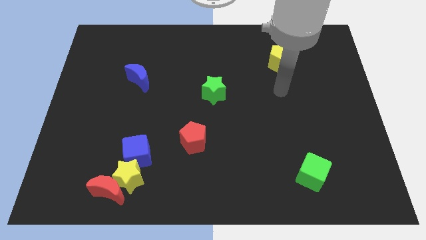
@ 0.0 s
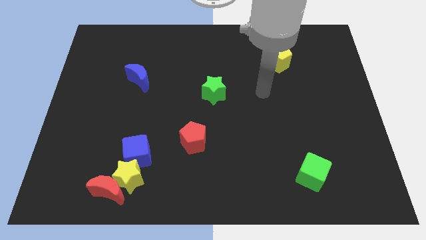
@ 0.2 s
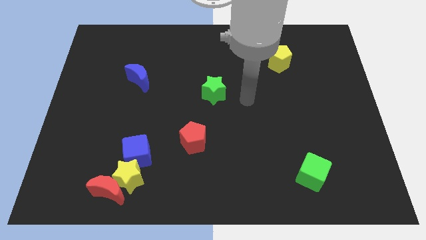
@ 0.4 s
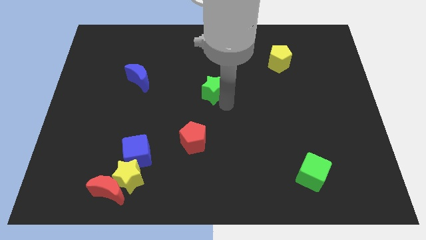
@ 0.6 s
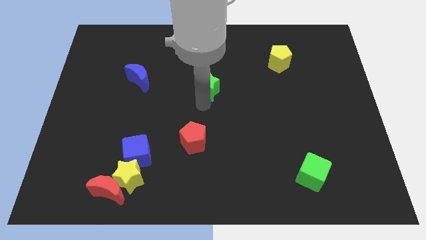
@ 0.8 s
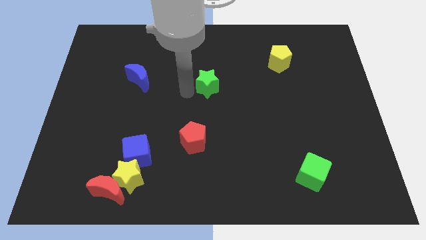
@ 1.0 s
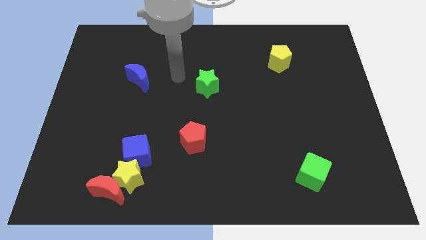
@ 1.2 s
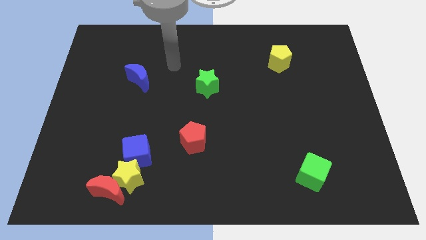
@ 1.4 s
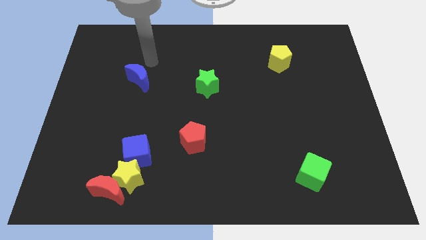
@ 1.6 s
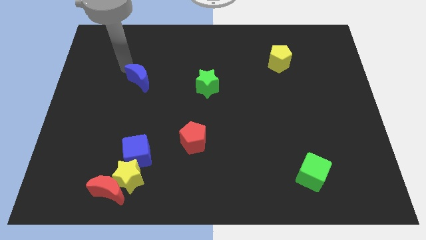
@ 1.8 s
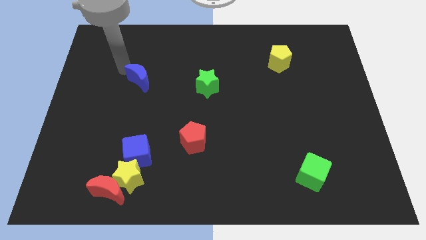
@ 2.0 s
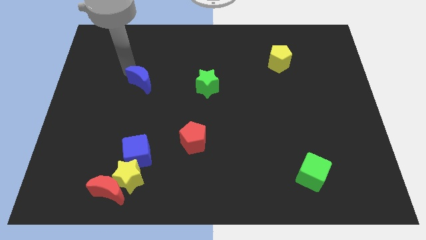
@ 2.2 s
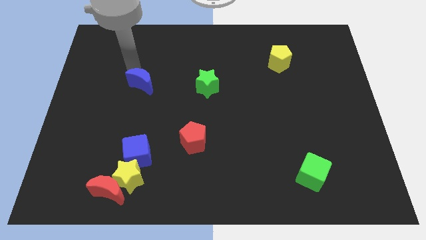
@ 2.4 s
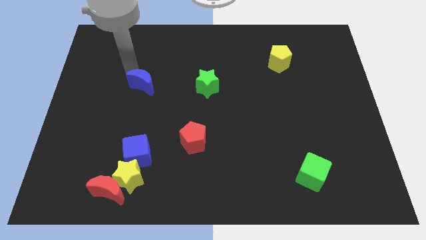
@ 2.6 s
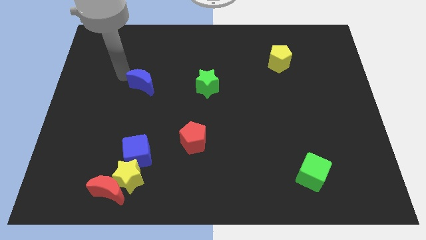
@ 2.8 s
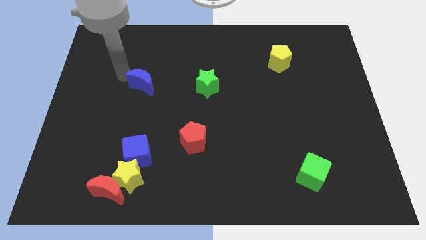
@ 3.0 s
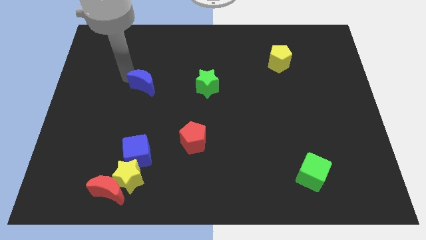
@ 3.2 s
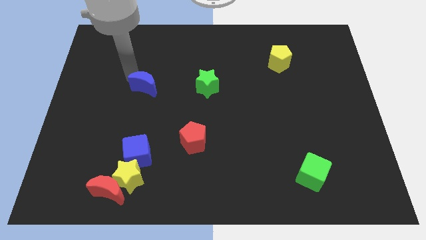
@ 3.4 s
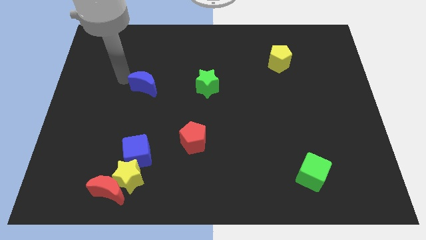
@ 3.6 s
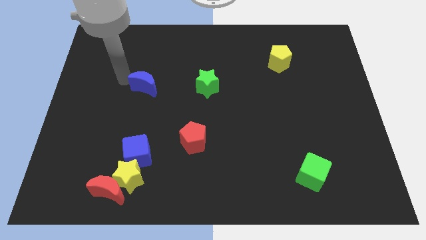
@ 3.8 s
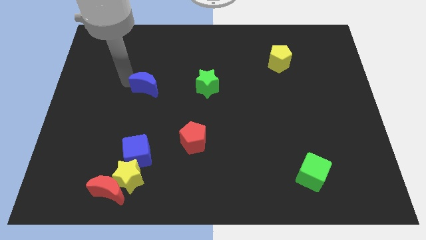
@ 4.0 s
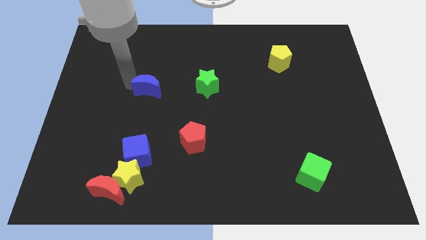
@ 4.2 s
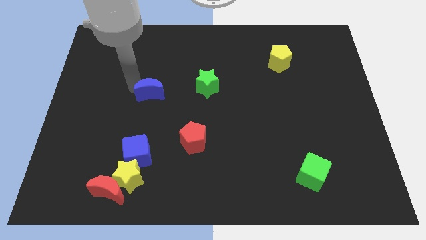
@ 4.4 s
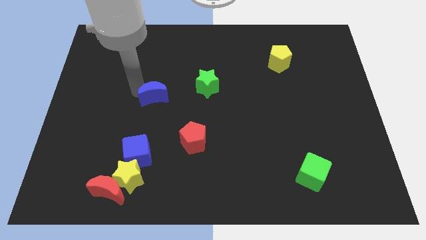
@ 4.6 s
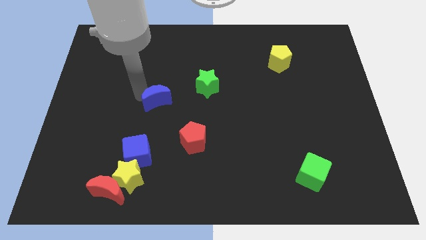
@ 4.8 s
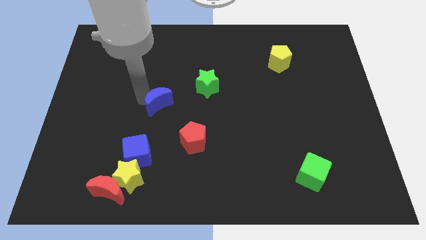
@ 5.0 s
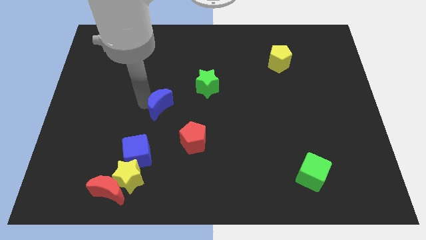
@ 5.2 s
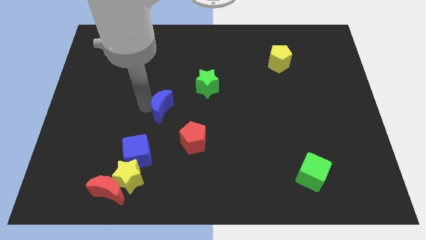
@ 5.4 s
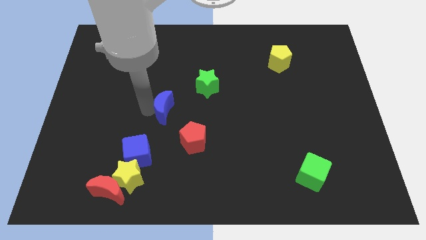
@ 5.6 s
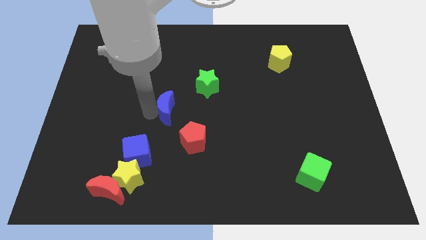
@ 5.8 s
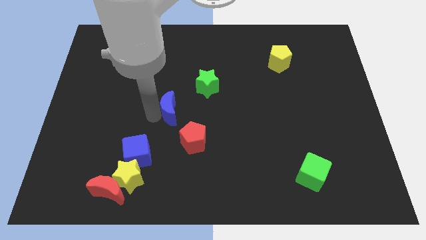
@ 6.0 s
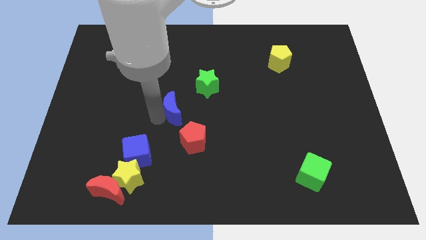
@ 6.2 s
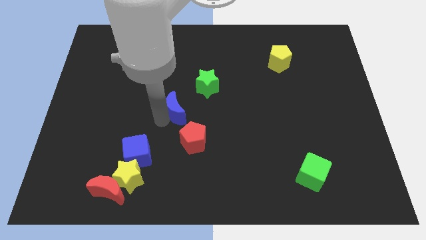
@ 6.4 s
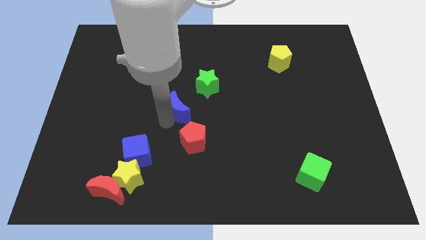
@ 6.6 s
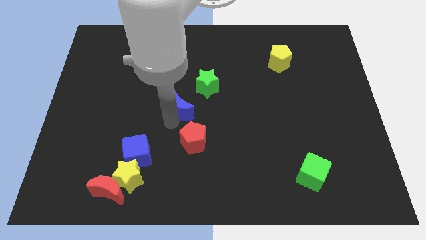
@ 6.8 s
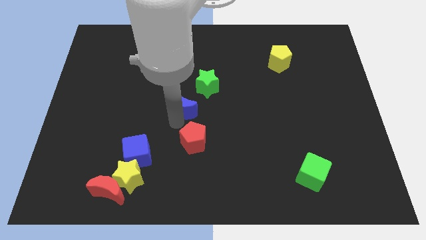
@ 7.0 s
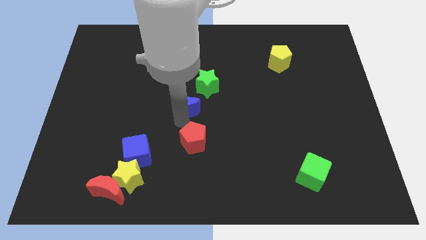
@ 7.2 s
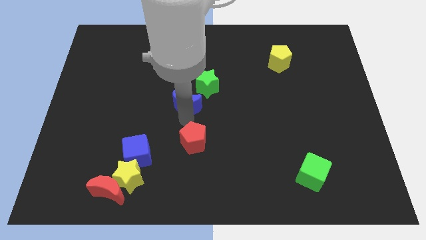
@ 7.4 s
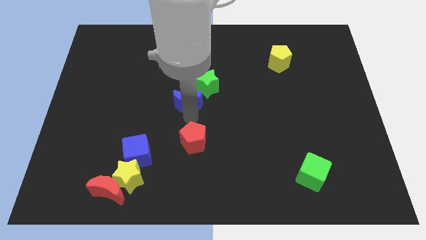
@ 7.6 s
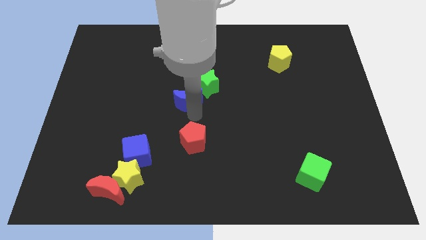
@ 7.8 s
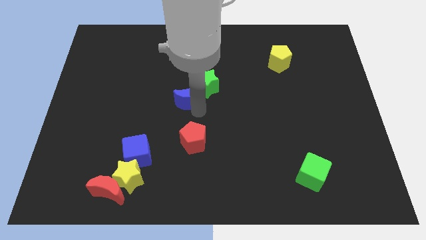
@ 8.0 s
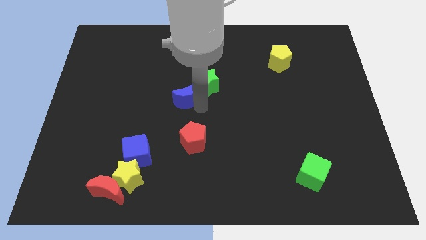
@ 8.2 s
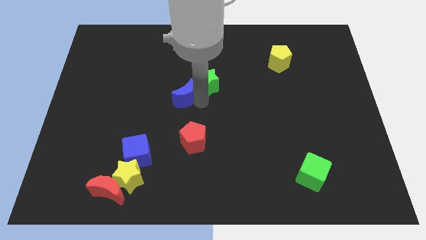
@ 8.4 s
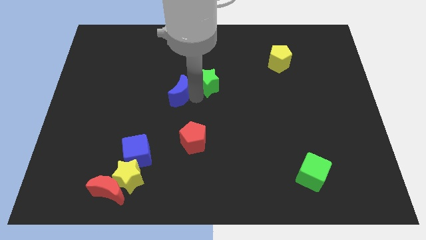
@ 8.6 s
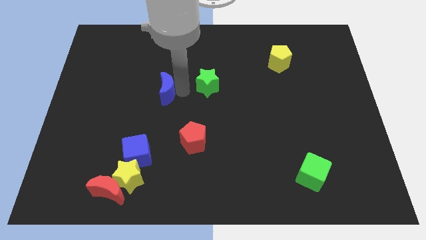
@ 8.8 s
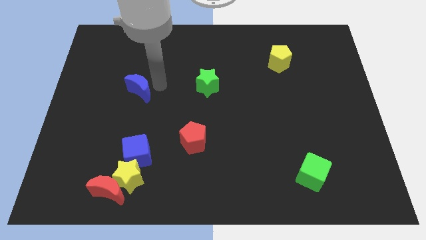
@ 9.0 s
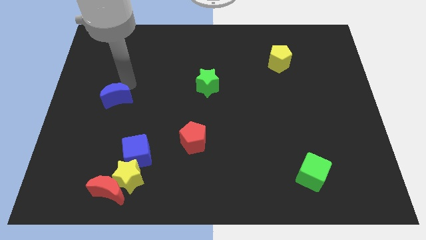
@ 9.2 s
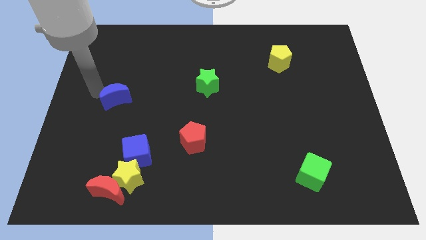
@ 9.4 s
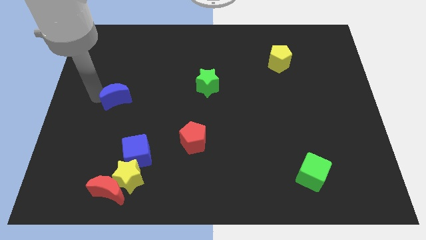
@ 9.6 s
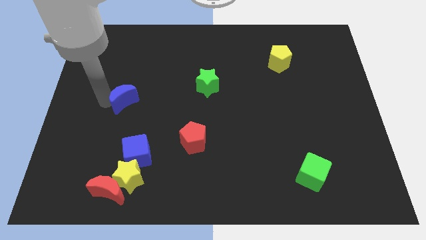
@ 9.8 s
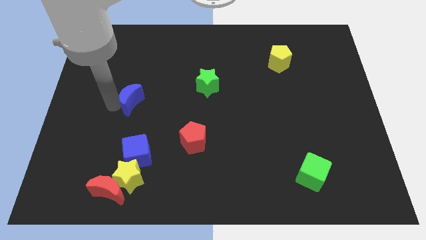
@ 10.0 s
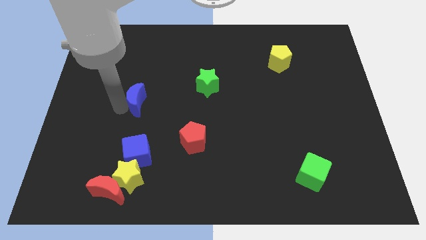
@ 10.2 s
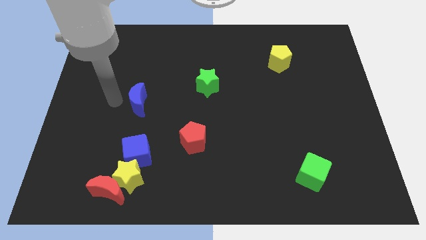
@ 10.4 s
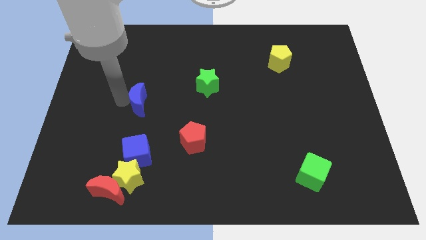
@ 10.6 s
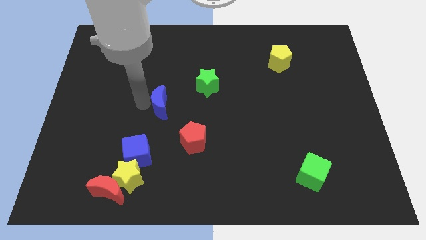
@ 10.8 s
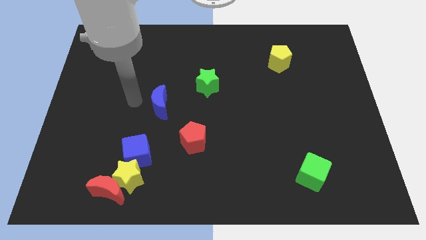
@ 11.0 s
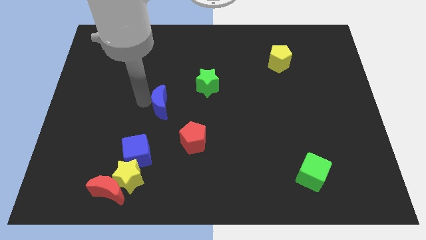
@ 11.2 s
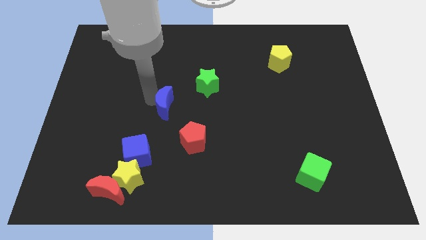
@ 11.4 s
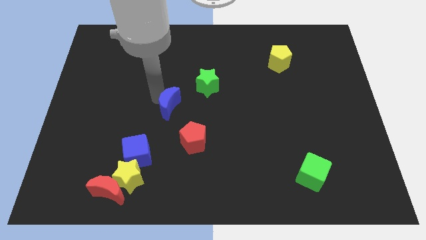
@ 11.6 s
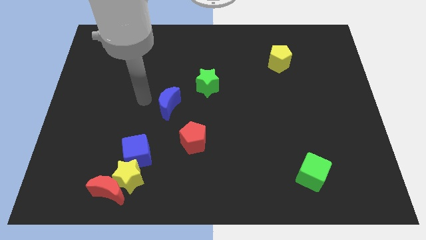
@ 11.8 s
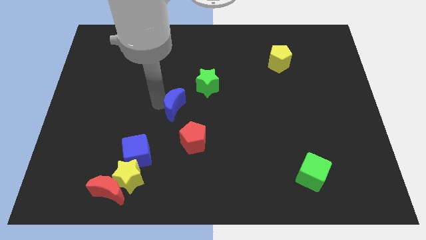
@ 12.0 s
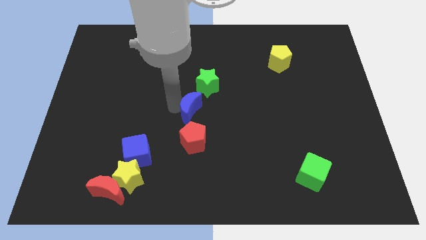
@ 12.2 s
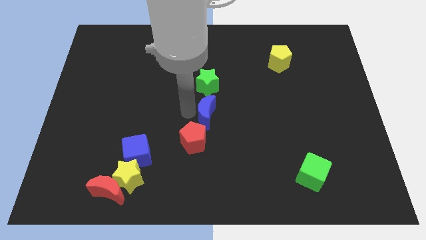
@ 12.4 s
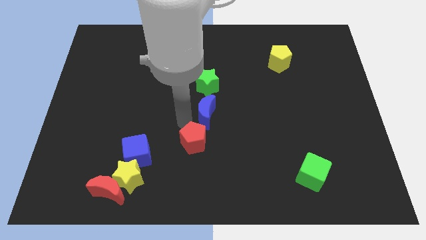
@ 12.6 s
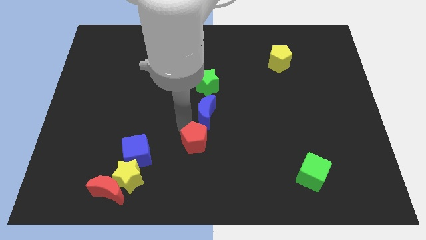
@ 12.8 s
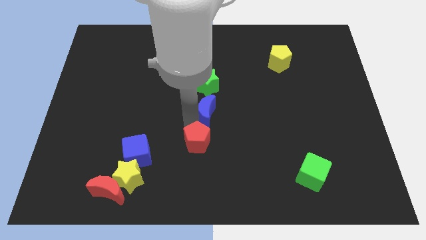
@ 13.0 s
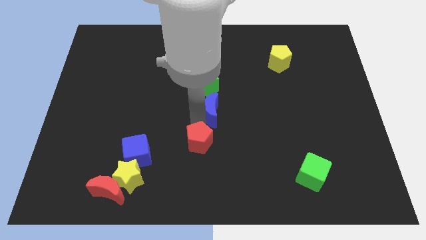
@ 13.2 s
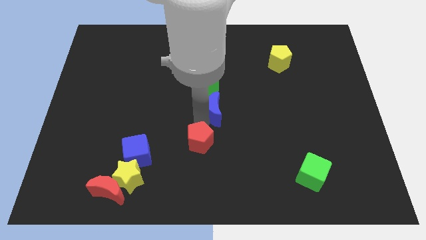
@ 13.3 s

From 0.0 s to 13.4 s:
put the blue moon diagonally down and to the right of the green star
